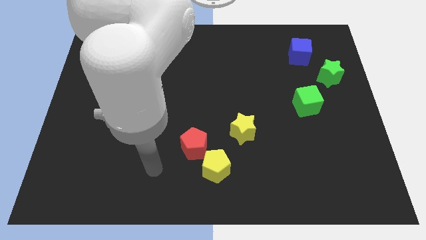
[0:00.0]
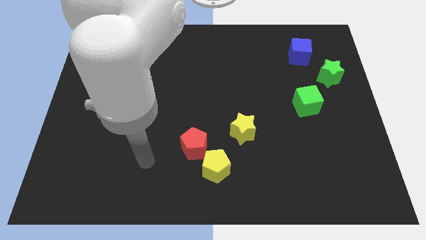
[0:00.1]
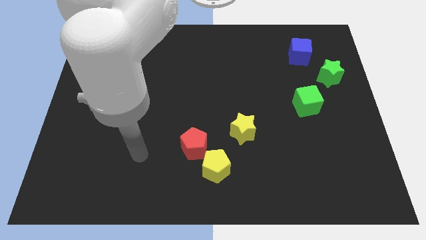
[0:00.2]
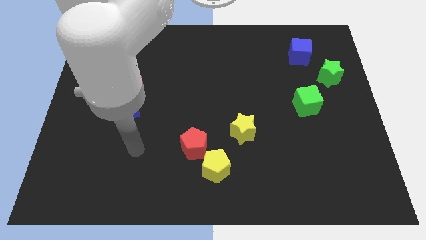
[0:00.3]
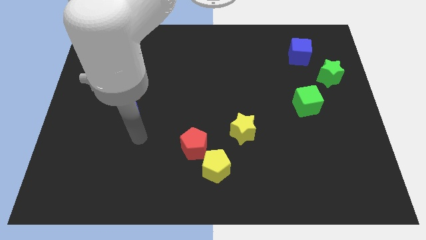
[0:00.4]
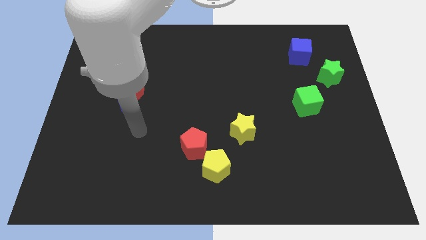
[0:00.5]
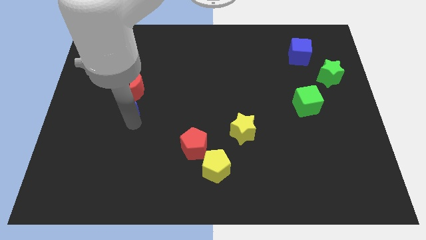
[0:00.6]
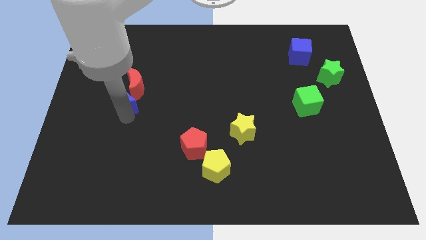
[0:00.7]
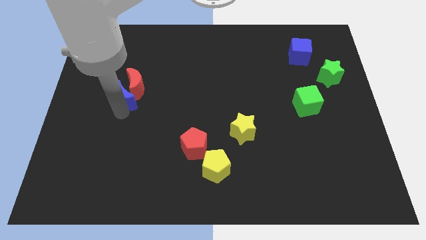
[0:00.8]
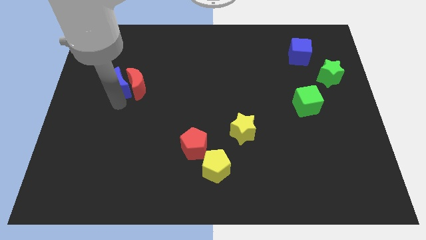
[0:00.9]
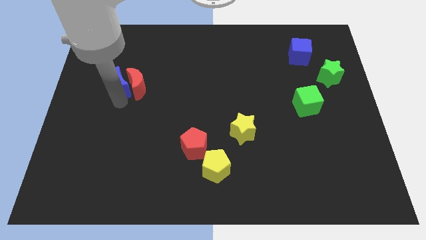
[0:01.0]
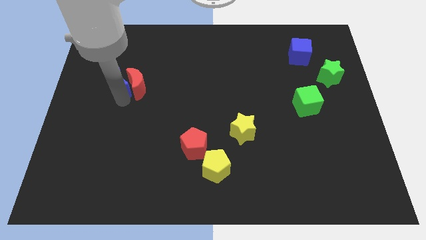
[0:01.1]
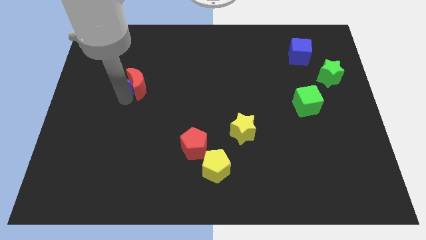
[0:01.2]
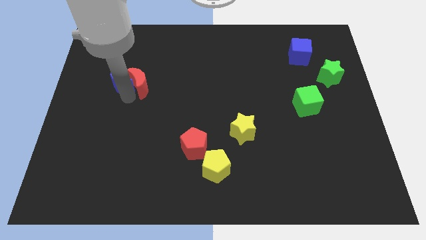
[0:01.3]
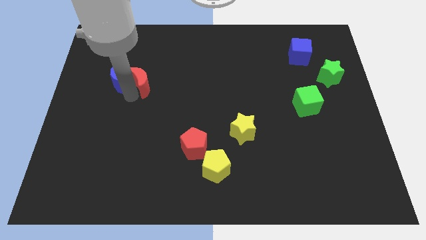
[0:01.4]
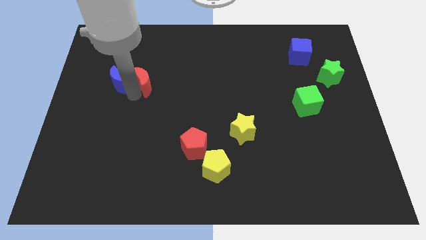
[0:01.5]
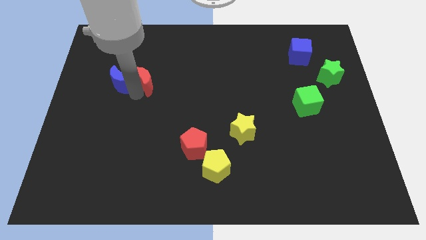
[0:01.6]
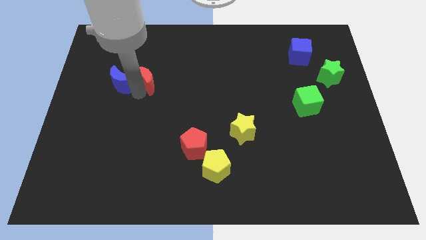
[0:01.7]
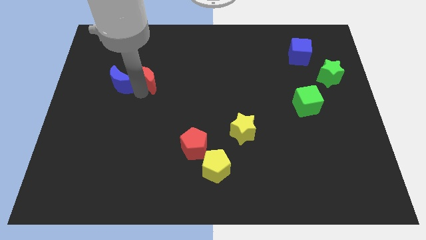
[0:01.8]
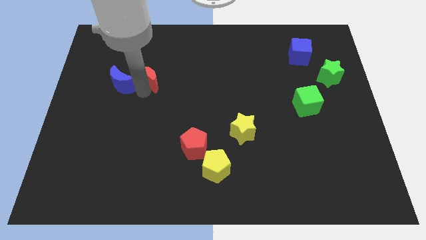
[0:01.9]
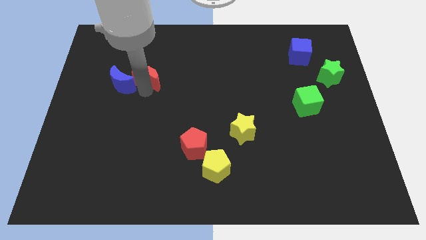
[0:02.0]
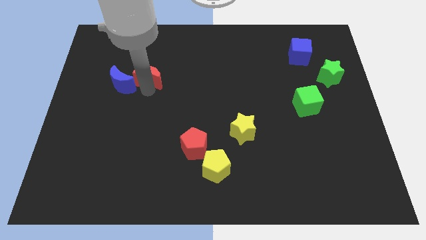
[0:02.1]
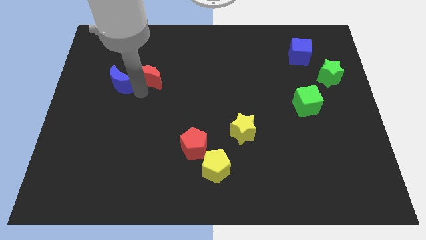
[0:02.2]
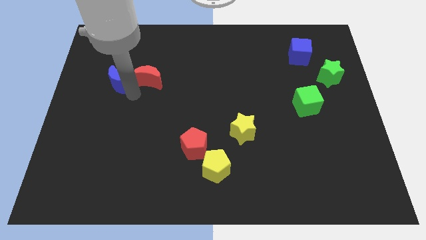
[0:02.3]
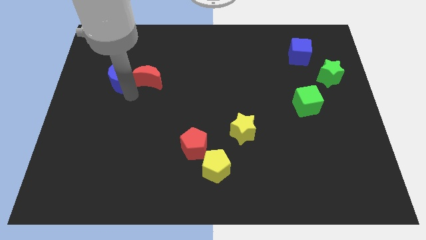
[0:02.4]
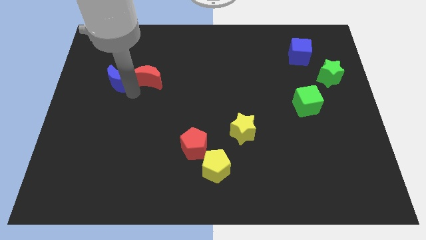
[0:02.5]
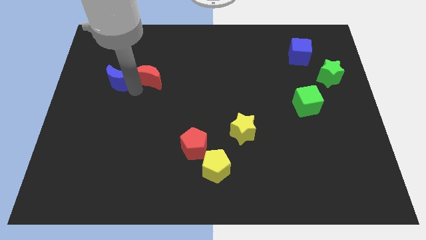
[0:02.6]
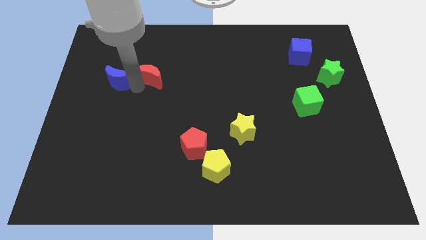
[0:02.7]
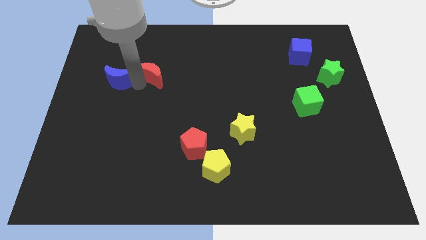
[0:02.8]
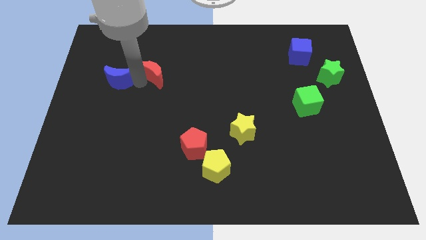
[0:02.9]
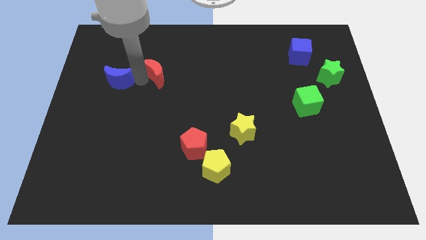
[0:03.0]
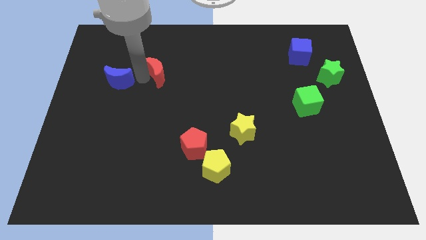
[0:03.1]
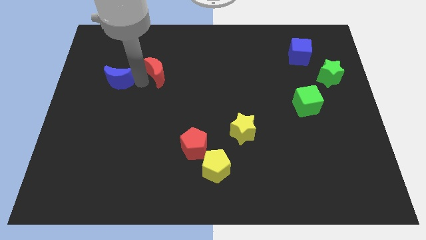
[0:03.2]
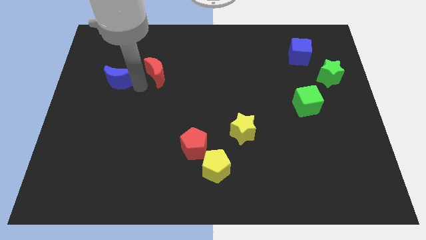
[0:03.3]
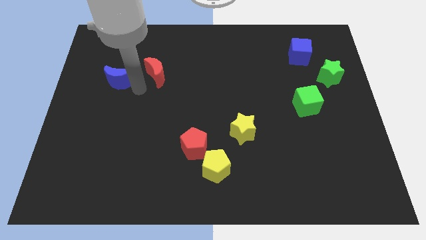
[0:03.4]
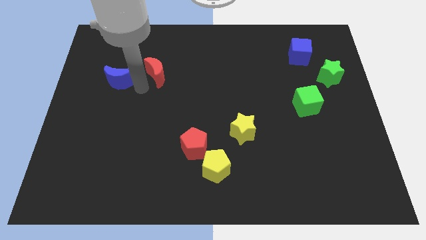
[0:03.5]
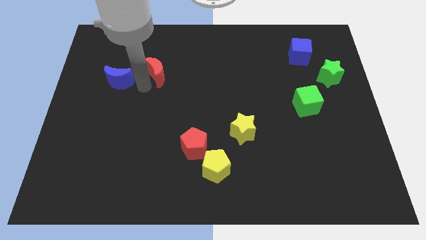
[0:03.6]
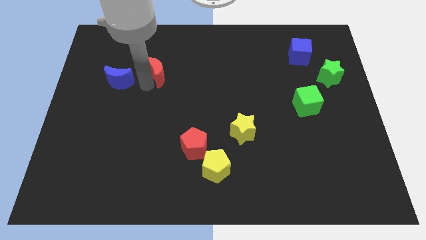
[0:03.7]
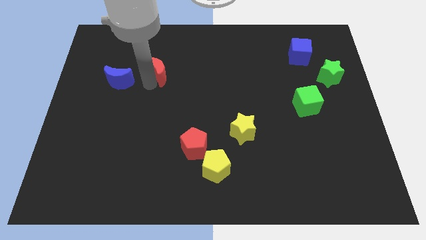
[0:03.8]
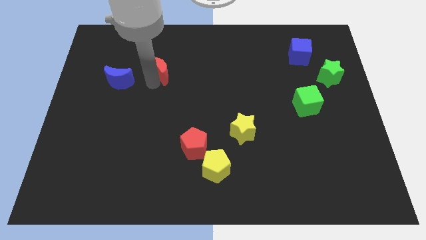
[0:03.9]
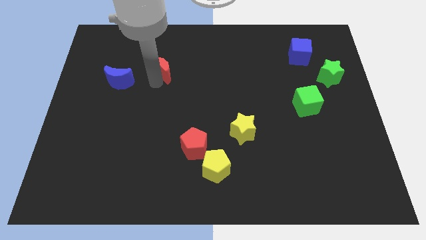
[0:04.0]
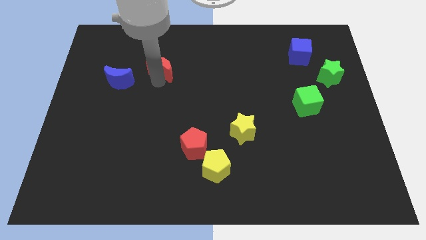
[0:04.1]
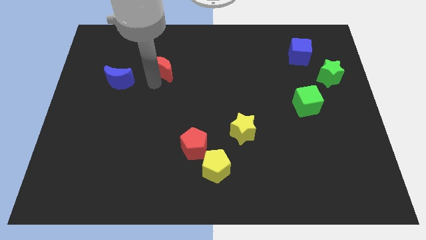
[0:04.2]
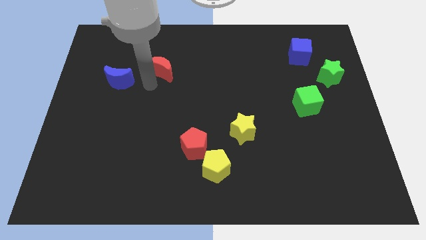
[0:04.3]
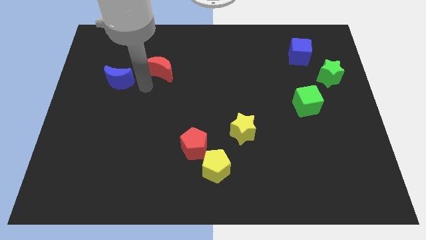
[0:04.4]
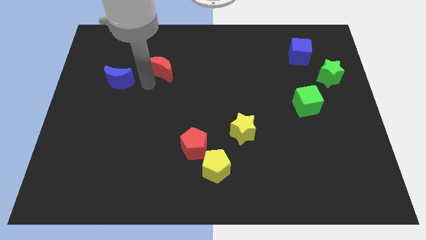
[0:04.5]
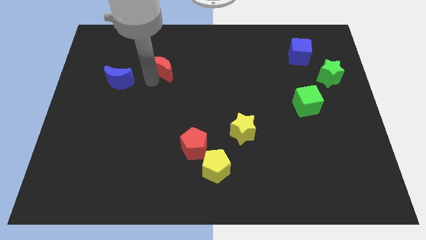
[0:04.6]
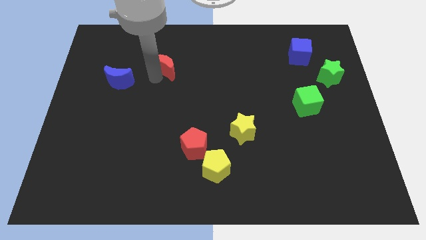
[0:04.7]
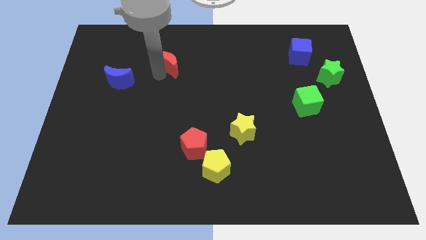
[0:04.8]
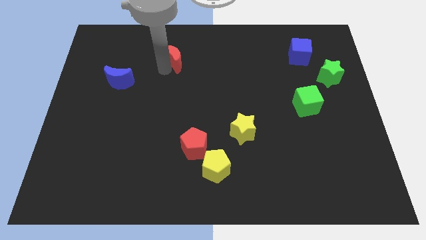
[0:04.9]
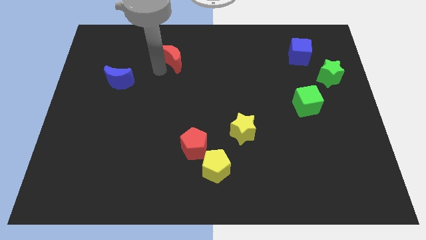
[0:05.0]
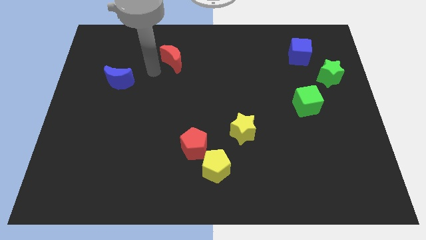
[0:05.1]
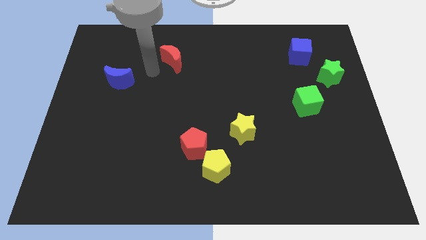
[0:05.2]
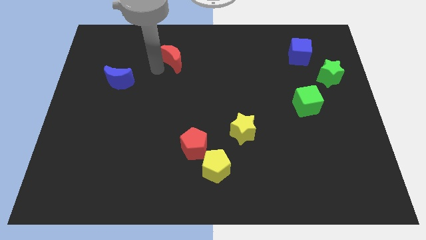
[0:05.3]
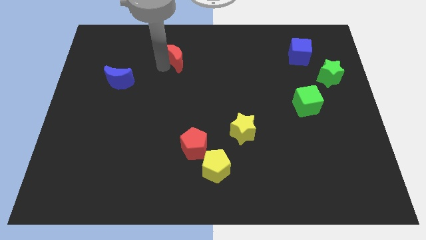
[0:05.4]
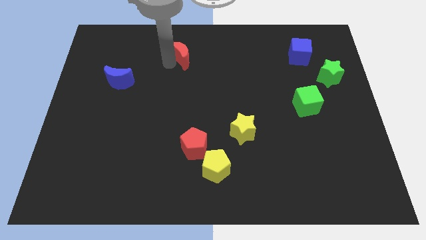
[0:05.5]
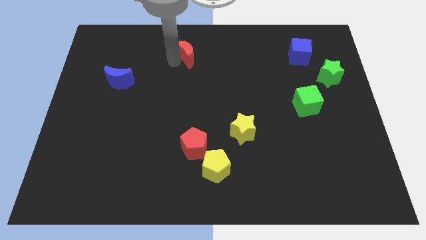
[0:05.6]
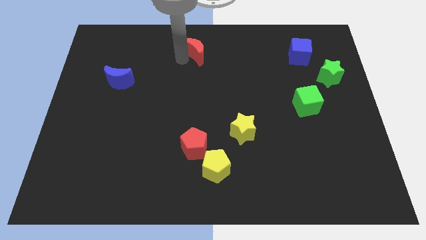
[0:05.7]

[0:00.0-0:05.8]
push the red moon to the top

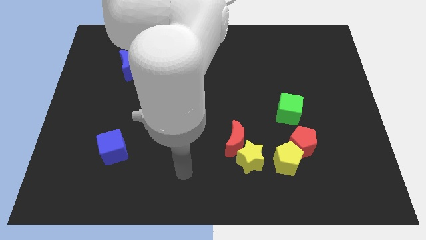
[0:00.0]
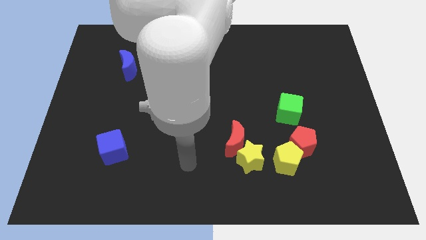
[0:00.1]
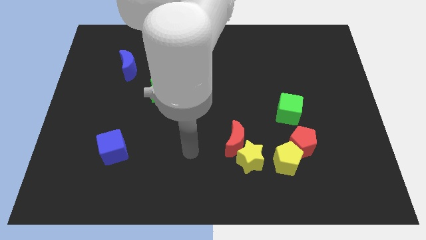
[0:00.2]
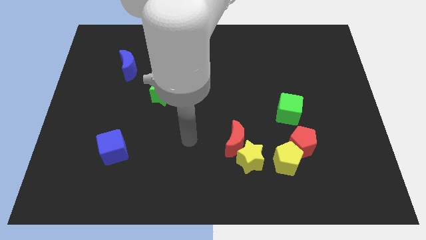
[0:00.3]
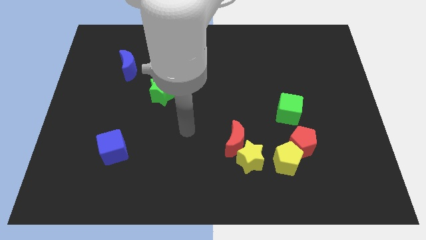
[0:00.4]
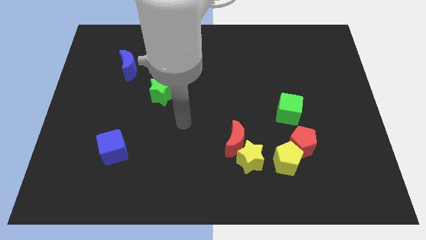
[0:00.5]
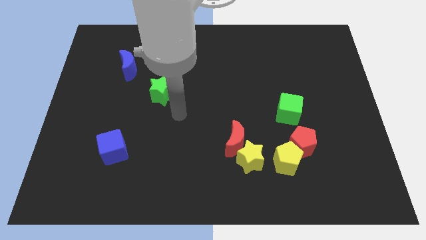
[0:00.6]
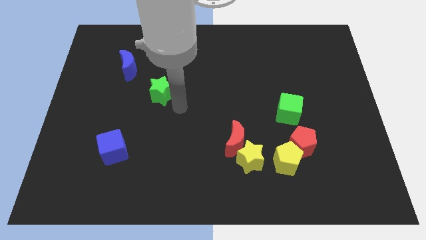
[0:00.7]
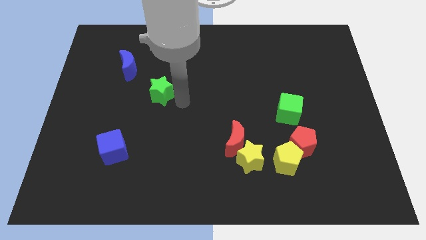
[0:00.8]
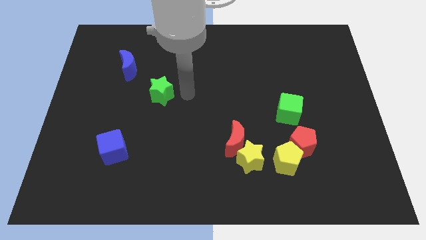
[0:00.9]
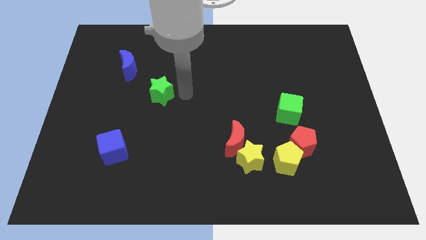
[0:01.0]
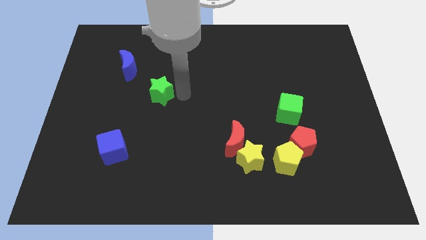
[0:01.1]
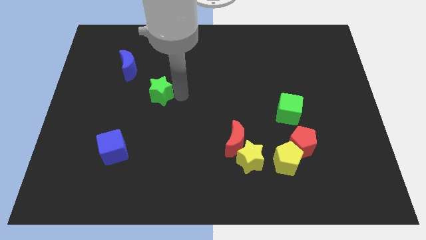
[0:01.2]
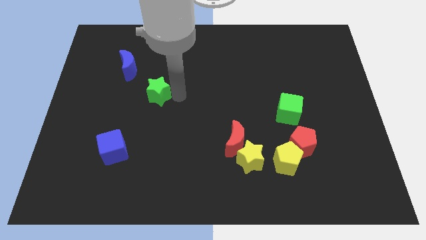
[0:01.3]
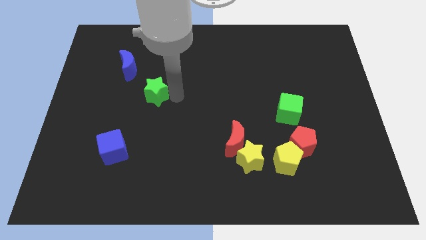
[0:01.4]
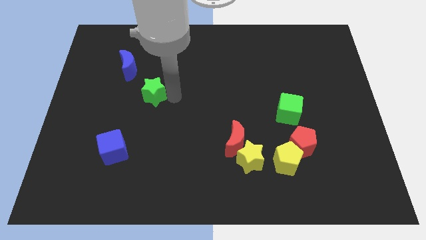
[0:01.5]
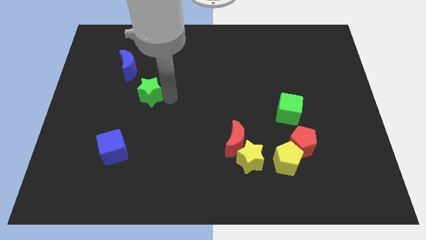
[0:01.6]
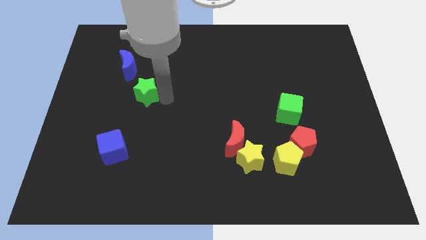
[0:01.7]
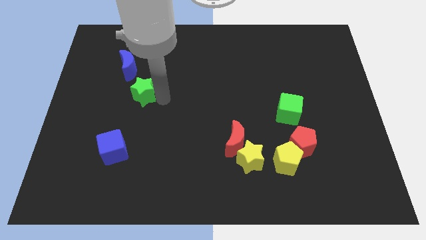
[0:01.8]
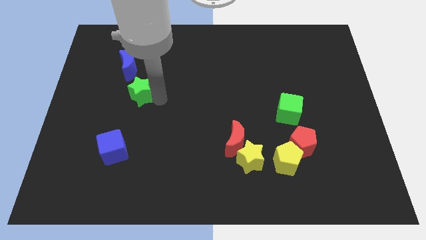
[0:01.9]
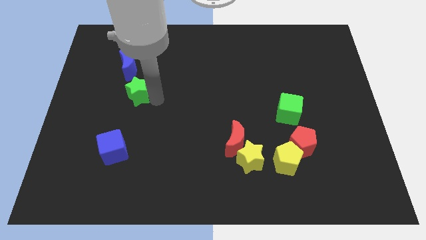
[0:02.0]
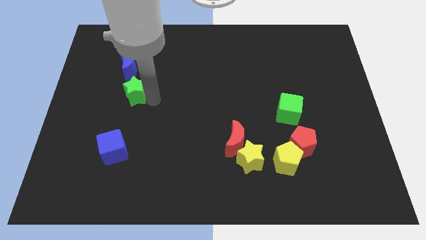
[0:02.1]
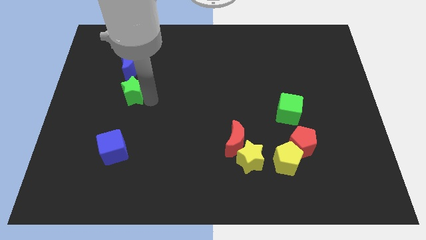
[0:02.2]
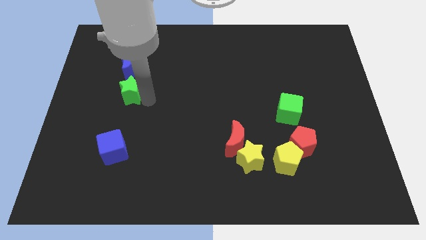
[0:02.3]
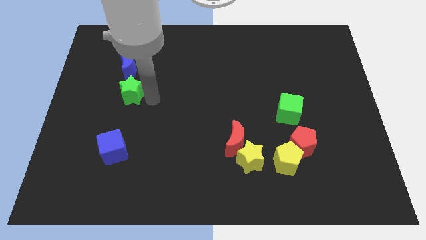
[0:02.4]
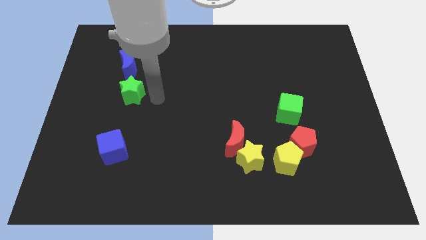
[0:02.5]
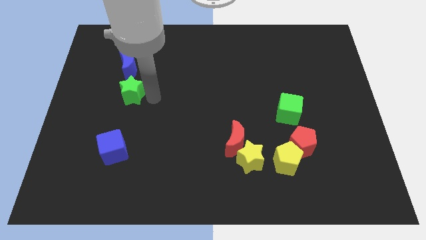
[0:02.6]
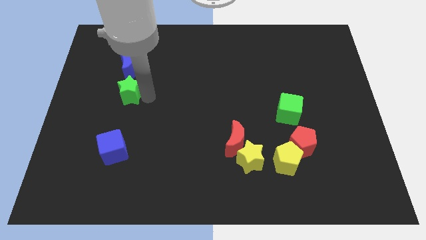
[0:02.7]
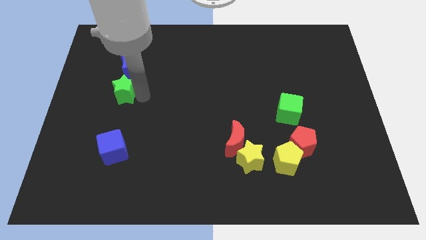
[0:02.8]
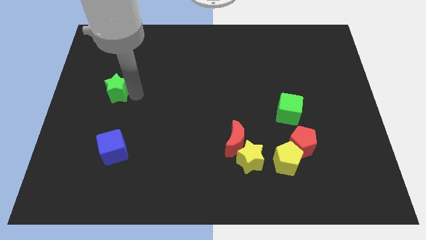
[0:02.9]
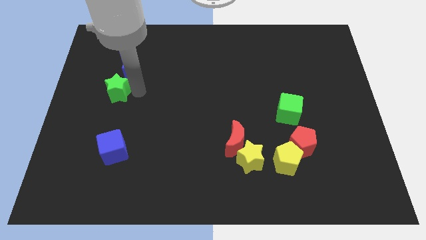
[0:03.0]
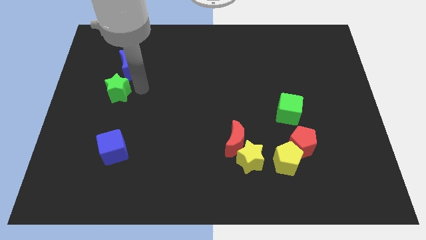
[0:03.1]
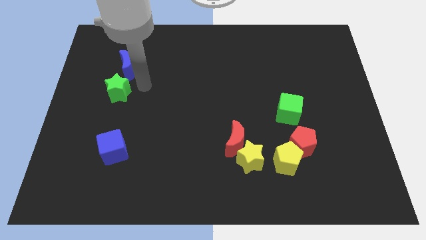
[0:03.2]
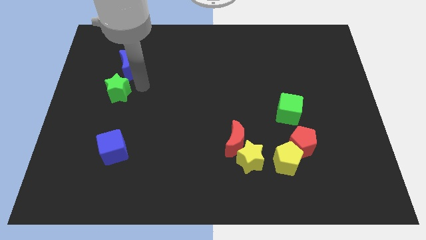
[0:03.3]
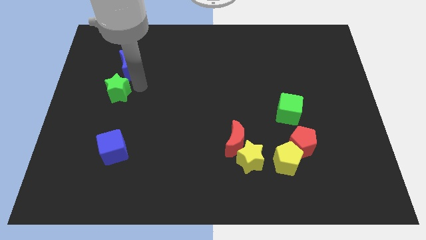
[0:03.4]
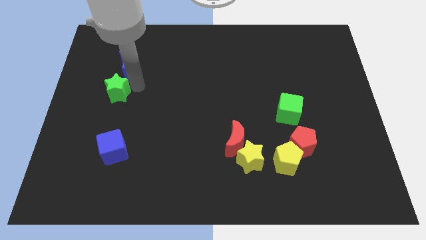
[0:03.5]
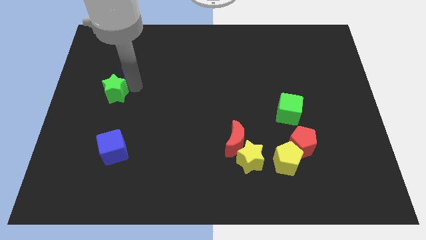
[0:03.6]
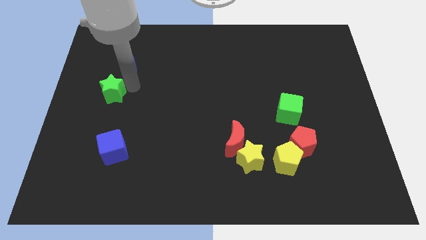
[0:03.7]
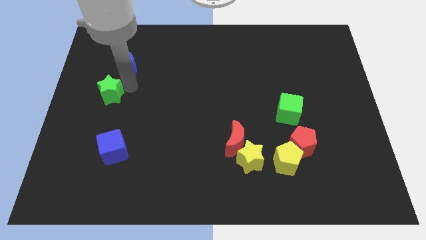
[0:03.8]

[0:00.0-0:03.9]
move the green star to the left side of the board
